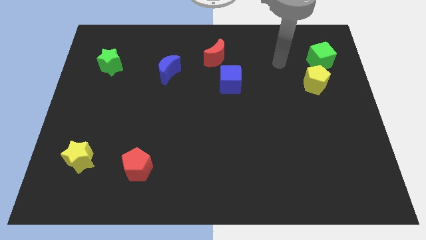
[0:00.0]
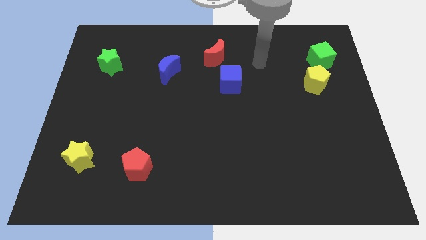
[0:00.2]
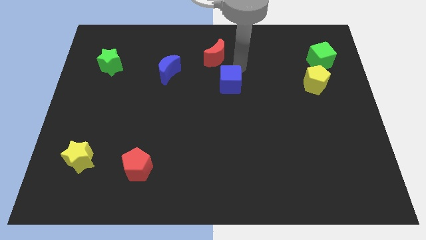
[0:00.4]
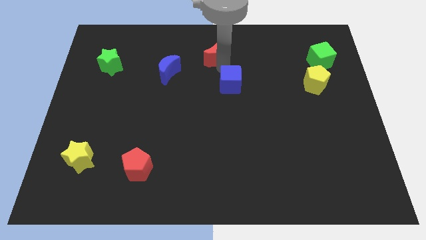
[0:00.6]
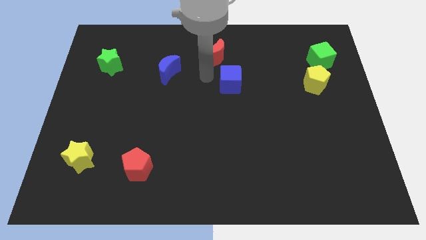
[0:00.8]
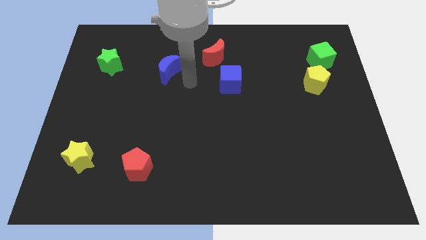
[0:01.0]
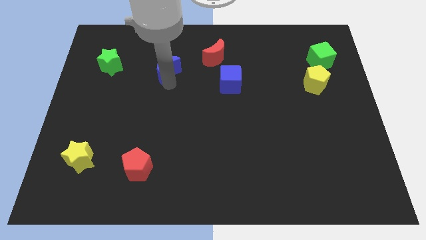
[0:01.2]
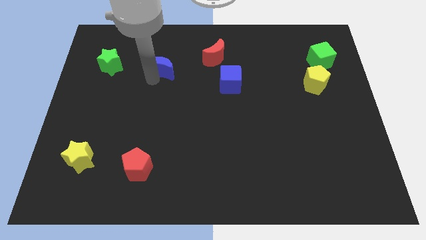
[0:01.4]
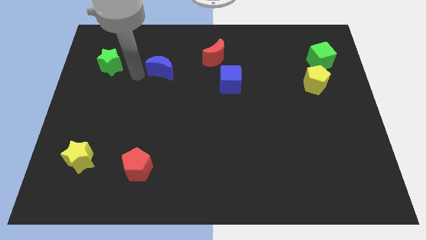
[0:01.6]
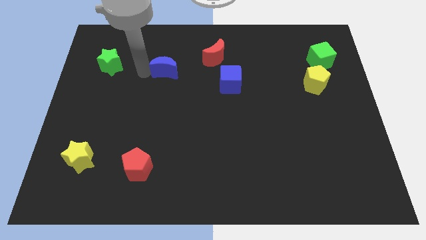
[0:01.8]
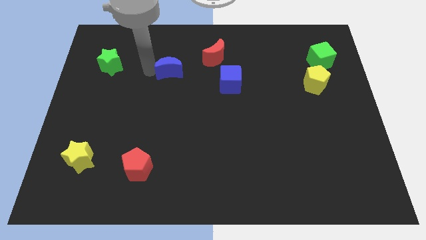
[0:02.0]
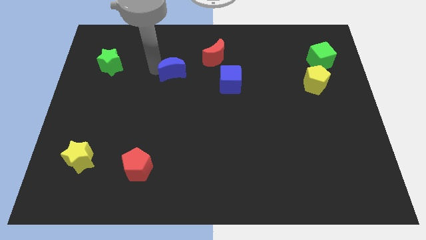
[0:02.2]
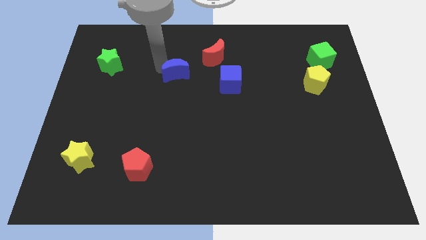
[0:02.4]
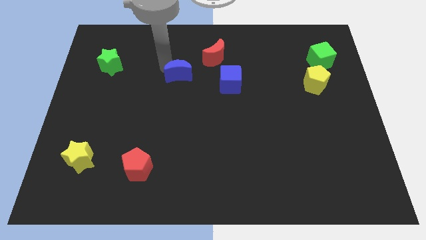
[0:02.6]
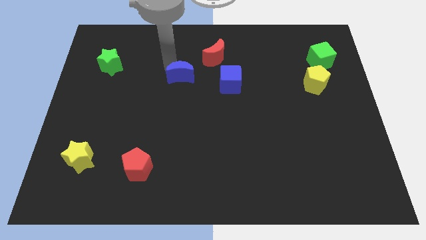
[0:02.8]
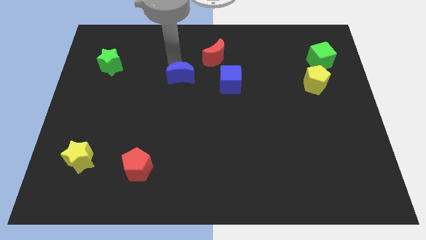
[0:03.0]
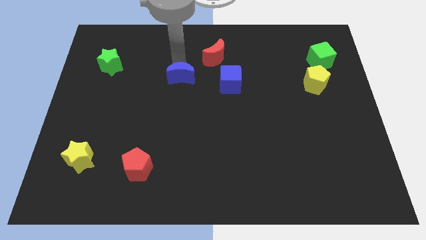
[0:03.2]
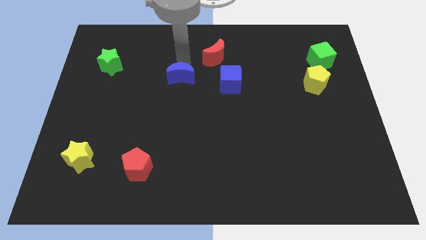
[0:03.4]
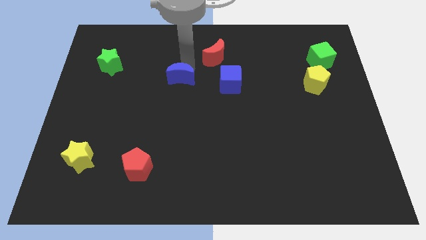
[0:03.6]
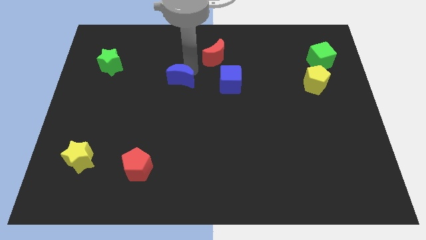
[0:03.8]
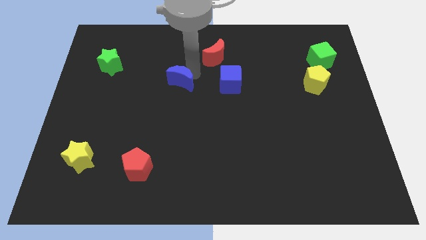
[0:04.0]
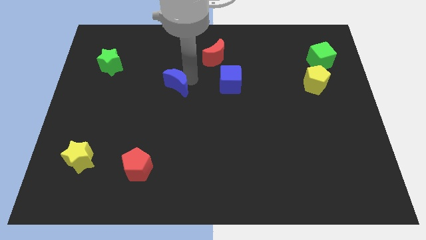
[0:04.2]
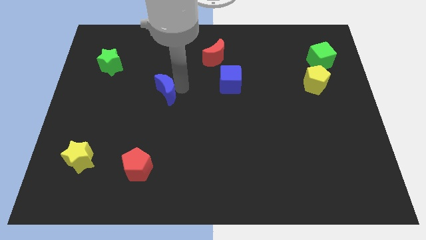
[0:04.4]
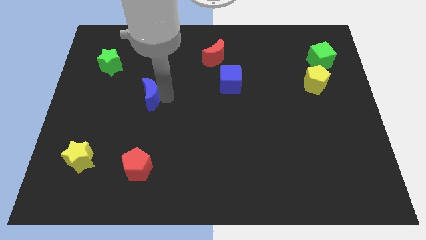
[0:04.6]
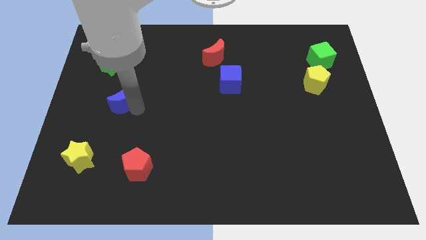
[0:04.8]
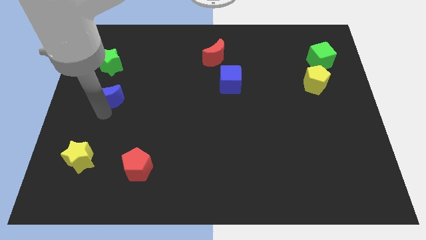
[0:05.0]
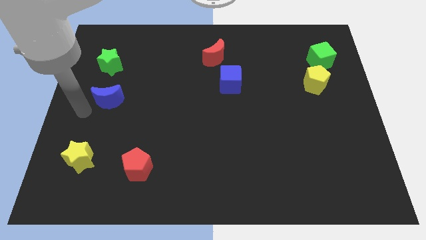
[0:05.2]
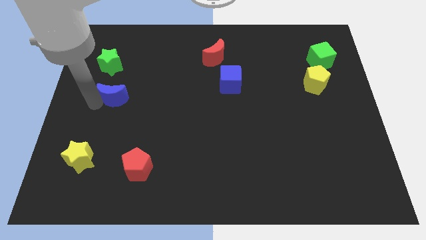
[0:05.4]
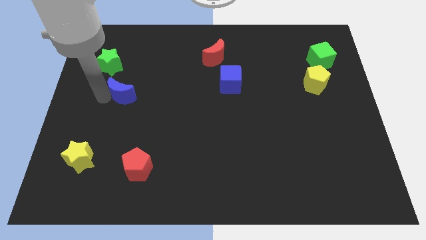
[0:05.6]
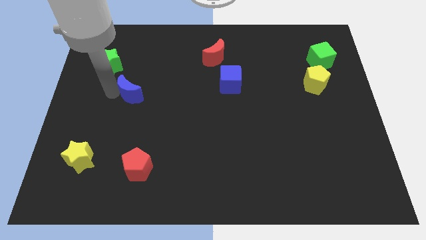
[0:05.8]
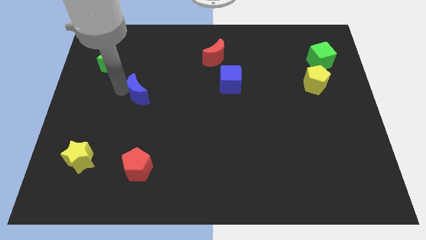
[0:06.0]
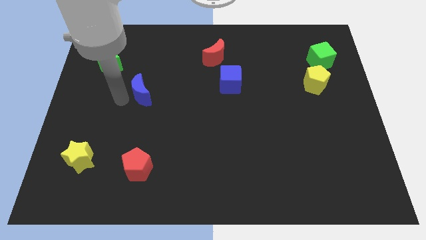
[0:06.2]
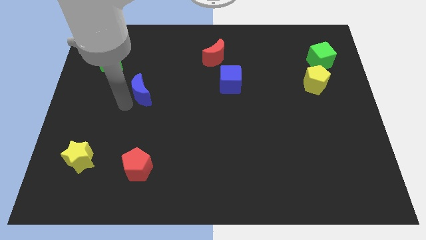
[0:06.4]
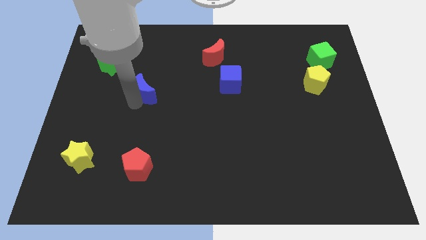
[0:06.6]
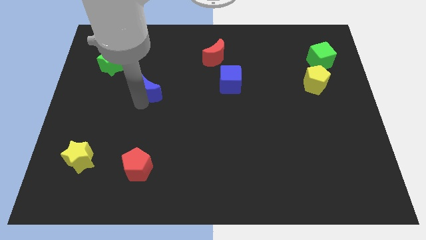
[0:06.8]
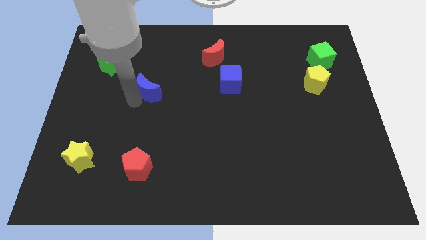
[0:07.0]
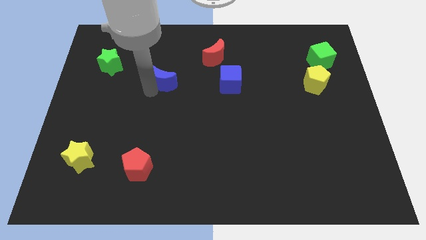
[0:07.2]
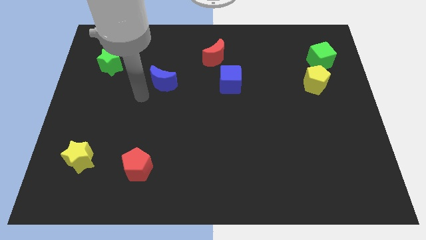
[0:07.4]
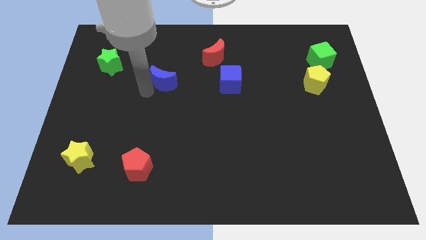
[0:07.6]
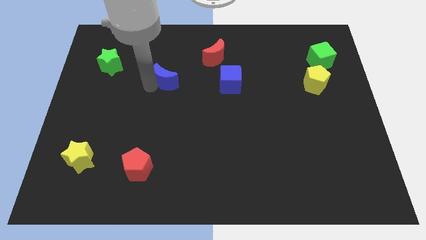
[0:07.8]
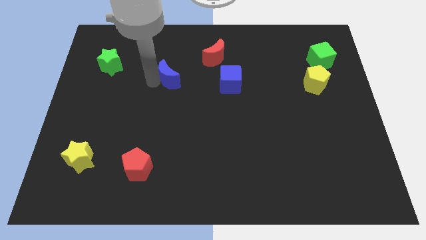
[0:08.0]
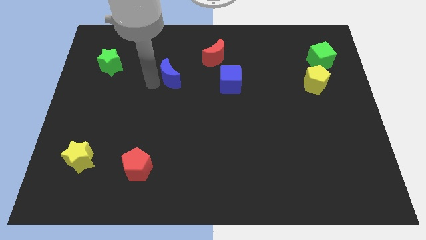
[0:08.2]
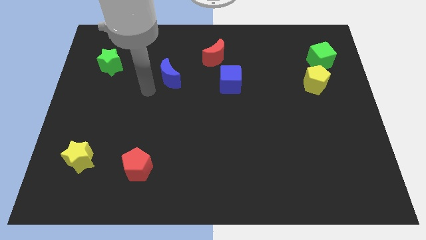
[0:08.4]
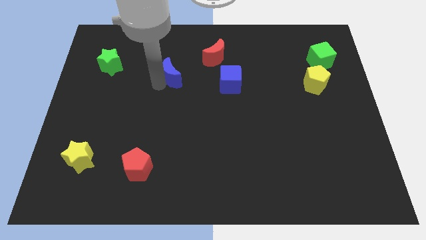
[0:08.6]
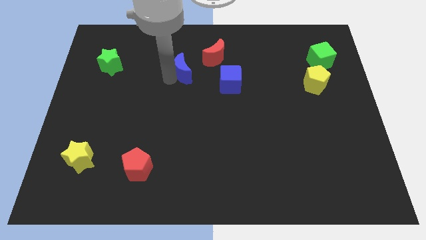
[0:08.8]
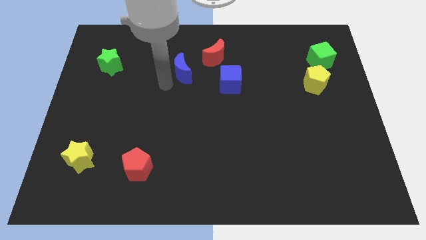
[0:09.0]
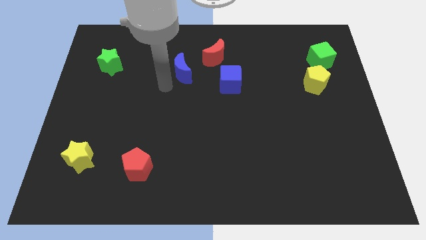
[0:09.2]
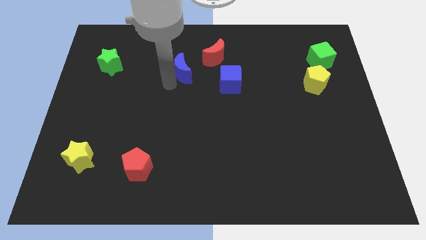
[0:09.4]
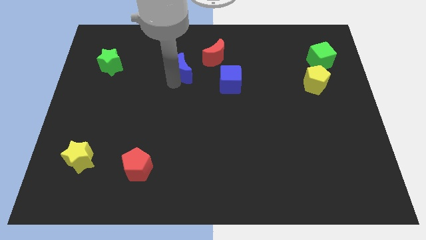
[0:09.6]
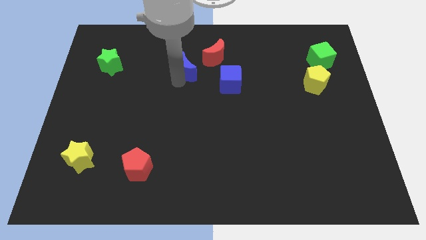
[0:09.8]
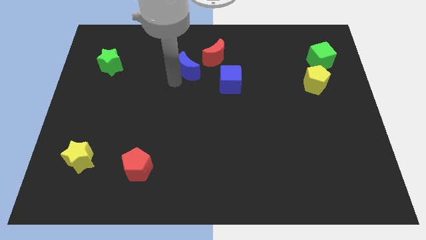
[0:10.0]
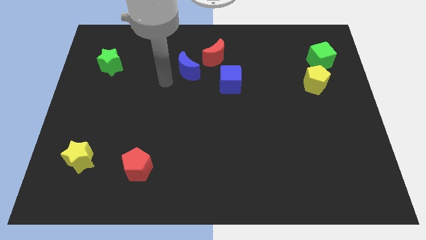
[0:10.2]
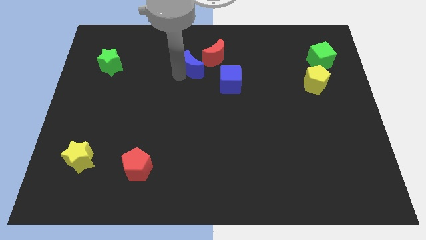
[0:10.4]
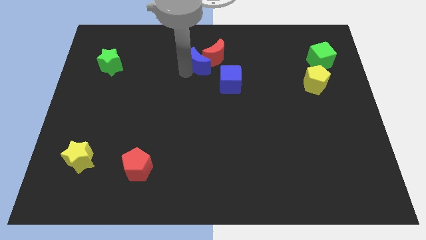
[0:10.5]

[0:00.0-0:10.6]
slide the blue moon next to the red moon

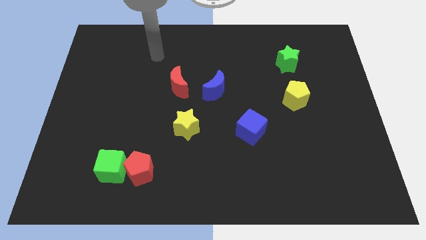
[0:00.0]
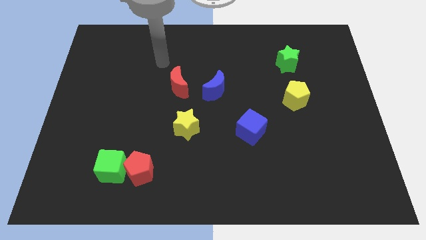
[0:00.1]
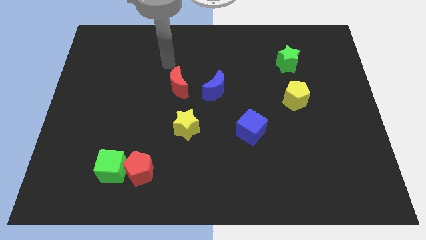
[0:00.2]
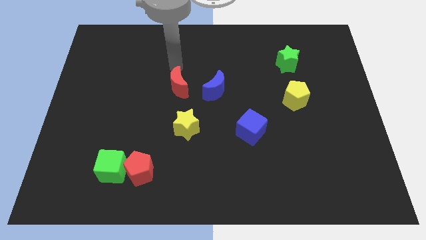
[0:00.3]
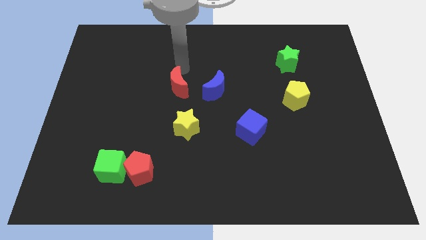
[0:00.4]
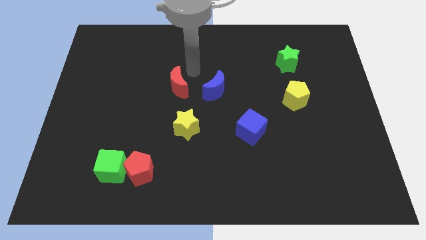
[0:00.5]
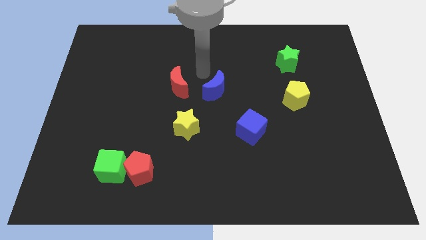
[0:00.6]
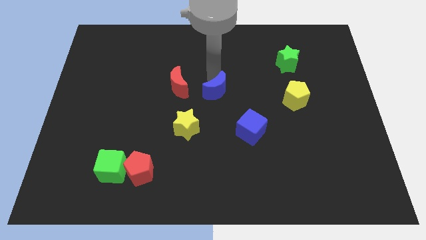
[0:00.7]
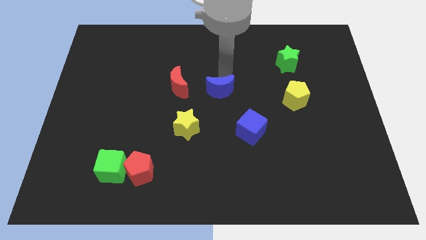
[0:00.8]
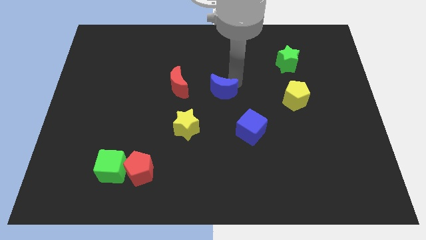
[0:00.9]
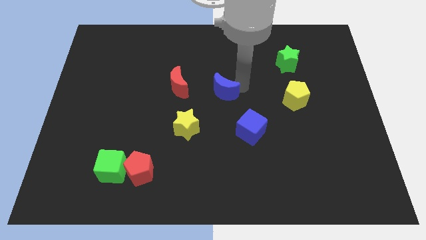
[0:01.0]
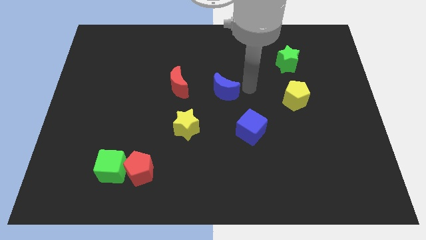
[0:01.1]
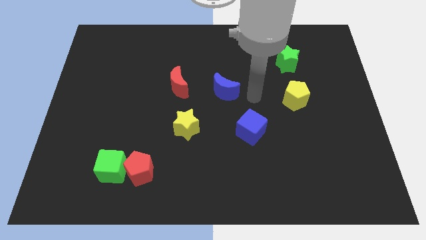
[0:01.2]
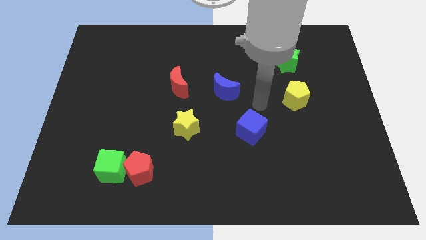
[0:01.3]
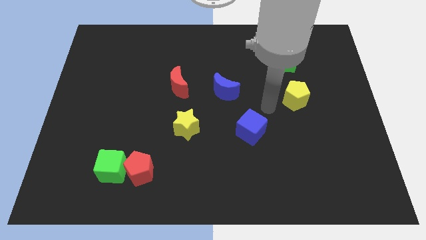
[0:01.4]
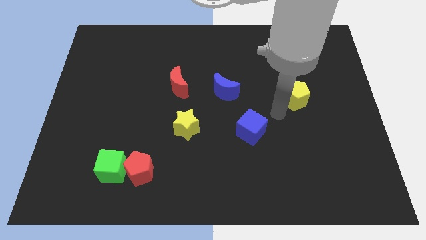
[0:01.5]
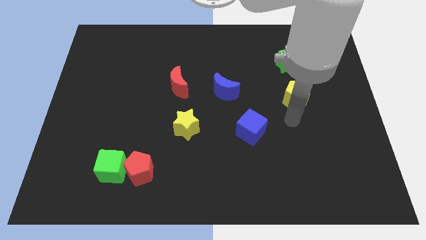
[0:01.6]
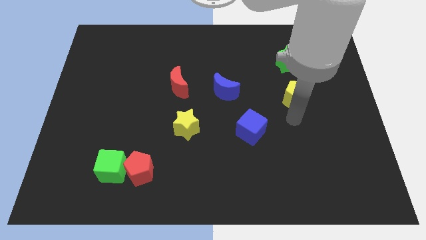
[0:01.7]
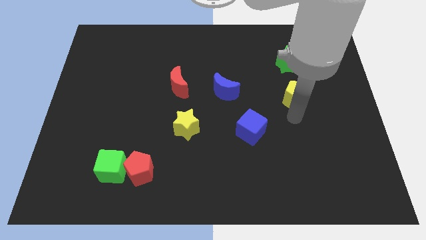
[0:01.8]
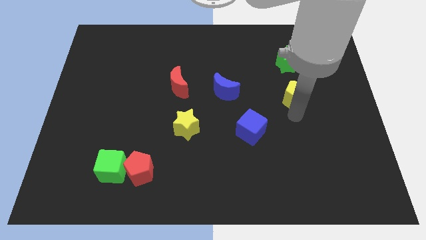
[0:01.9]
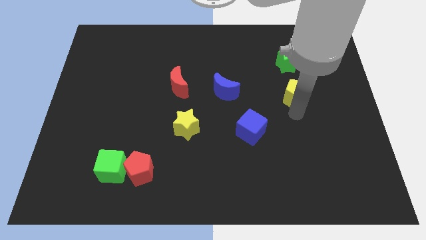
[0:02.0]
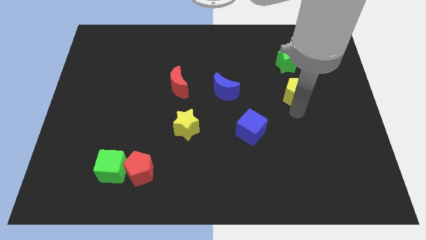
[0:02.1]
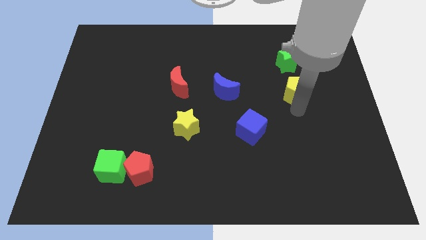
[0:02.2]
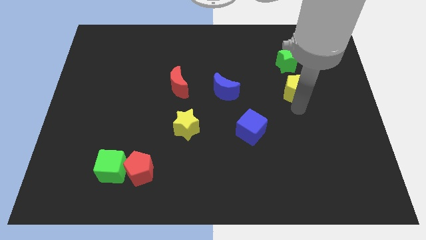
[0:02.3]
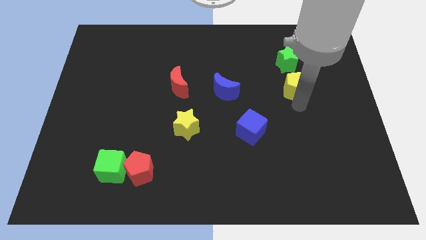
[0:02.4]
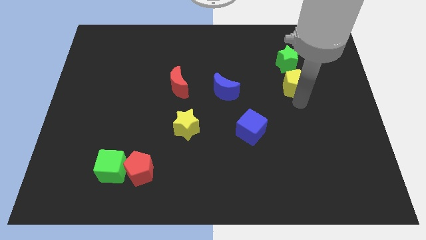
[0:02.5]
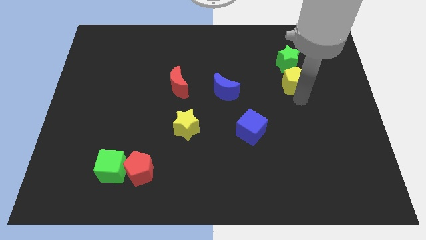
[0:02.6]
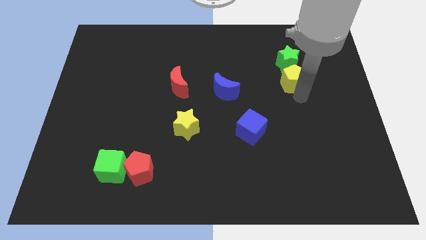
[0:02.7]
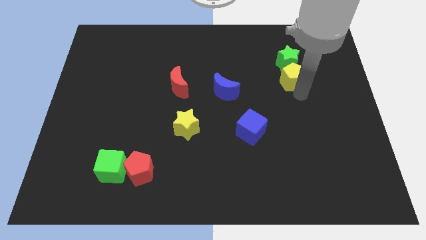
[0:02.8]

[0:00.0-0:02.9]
slide the yellow pentagon to the green star
